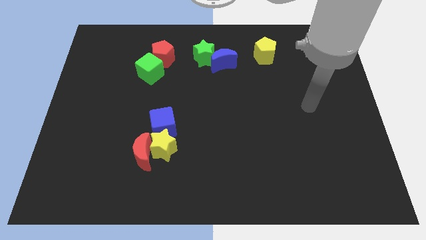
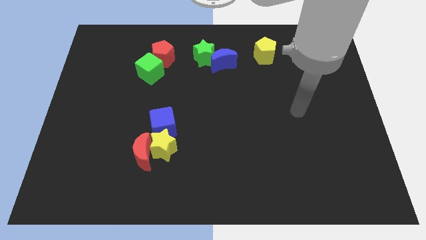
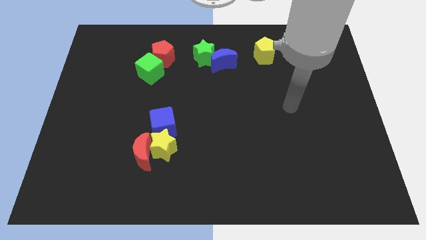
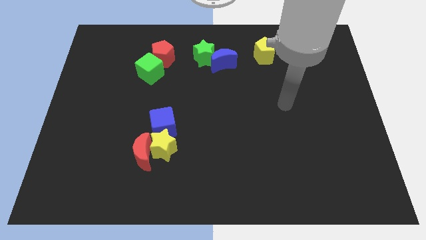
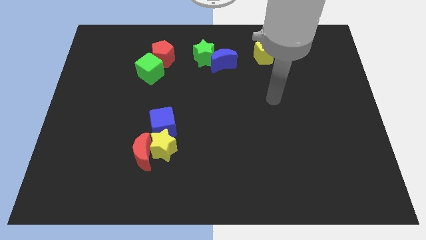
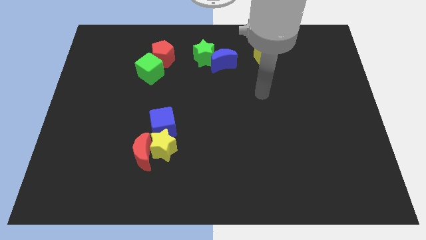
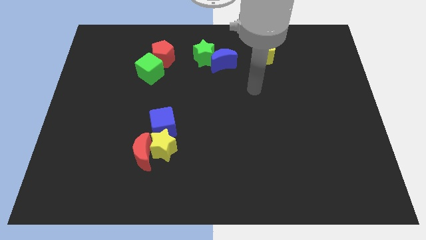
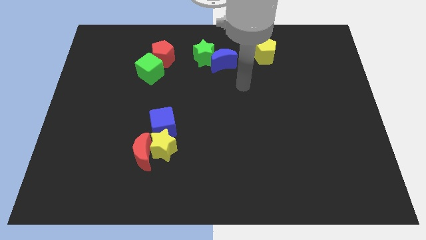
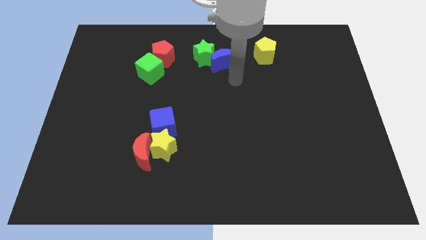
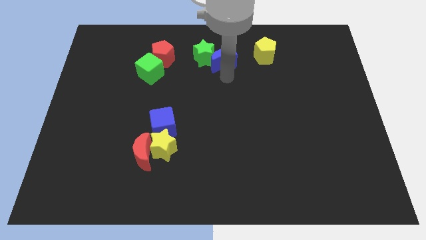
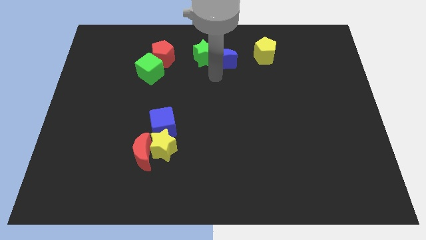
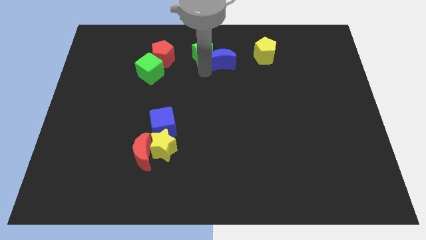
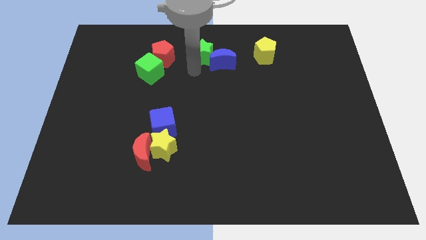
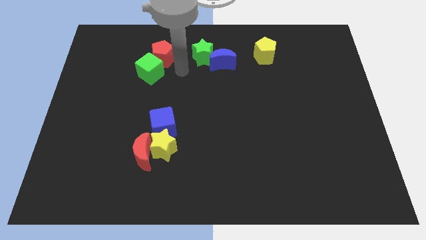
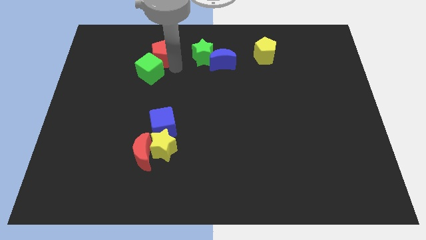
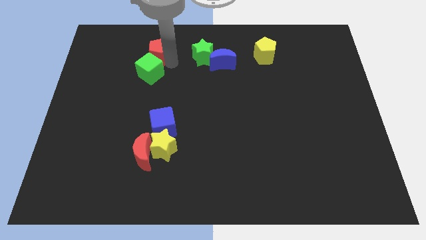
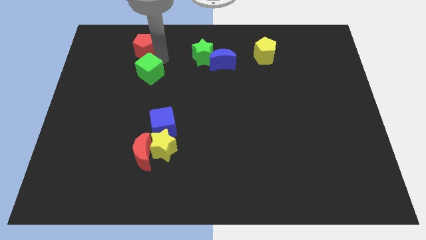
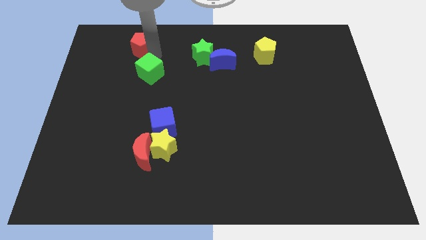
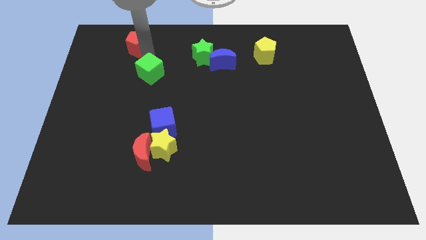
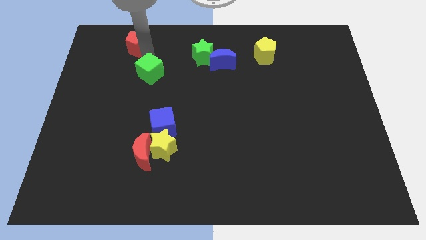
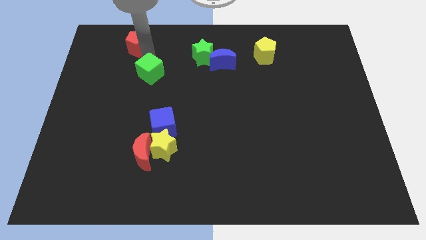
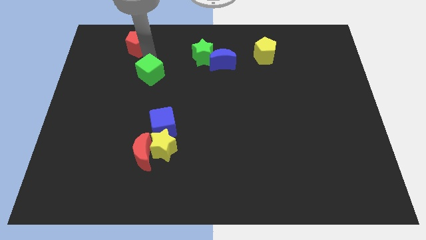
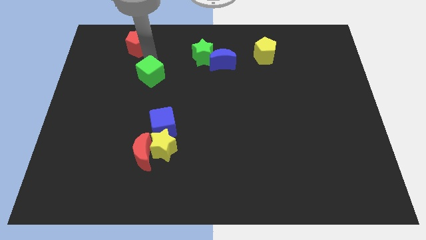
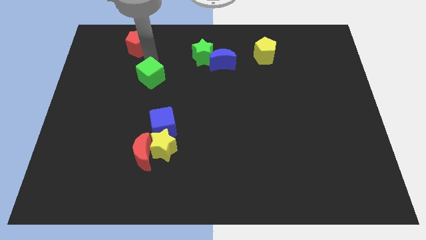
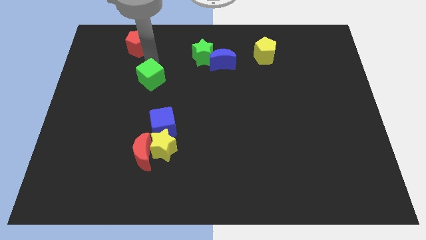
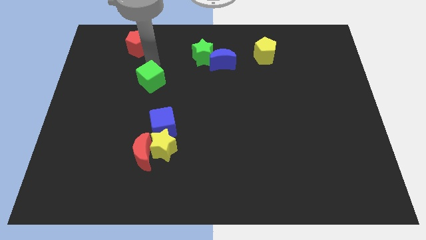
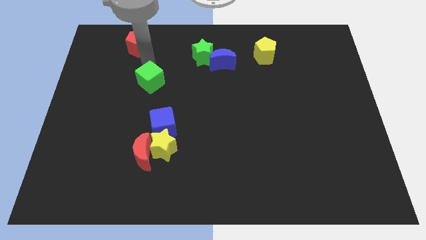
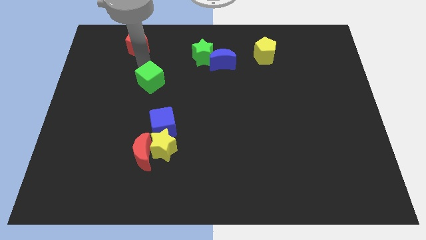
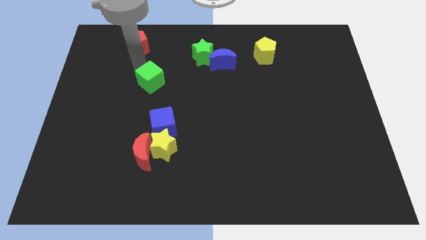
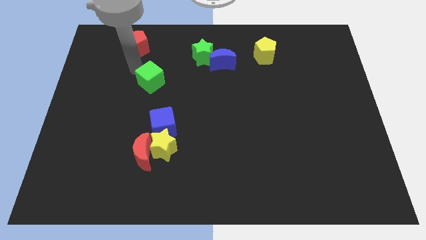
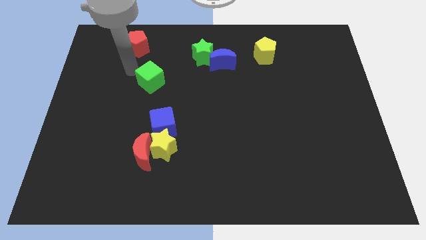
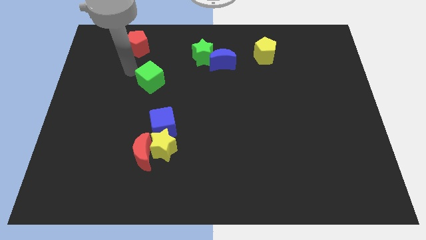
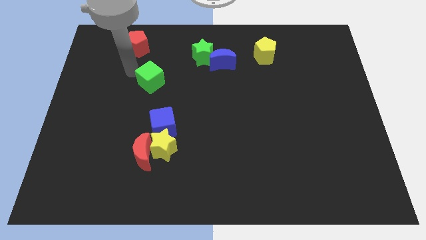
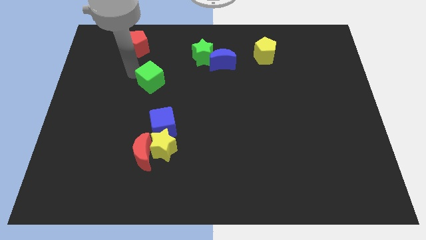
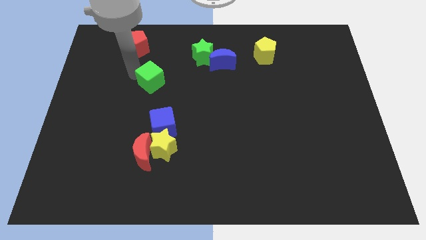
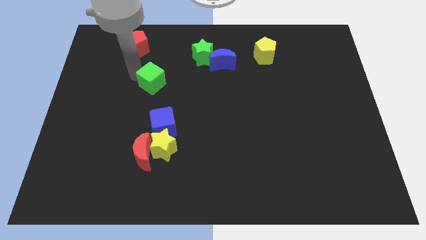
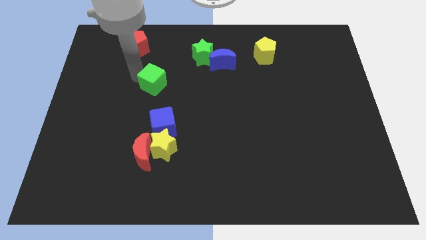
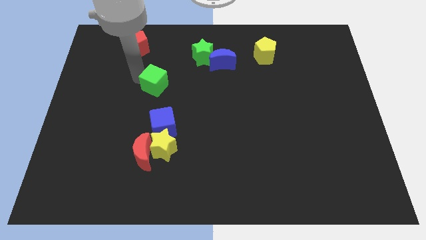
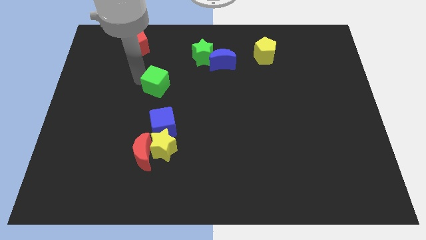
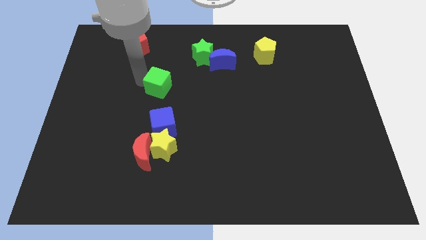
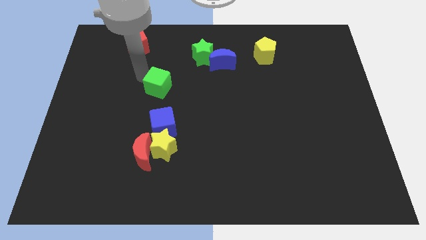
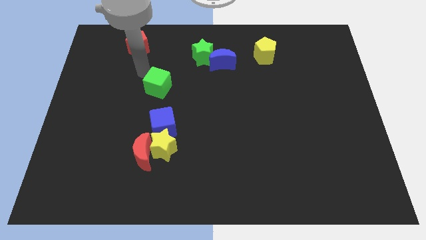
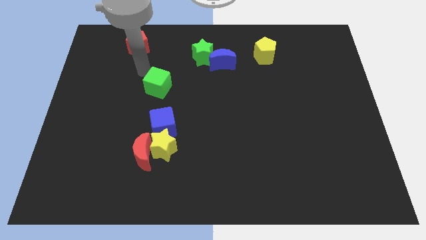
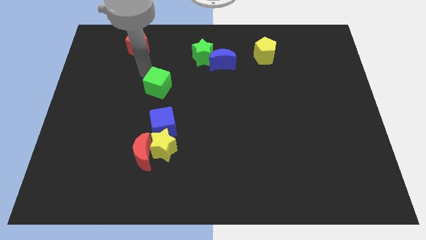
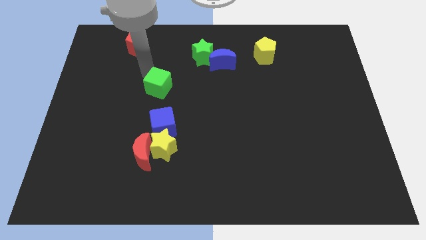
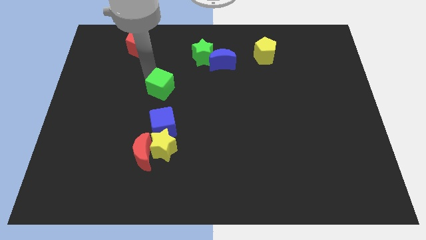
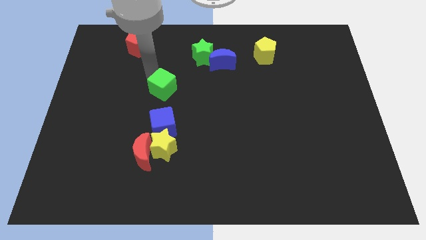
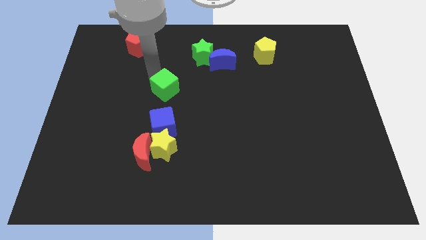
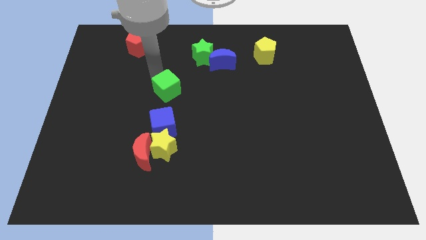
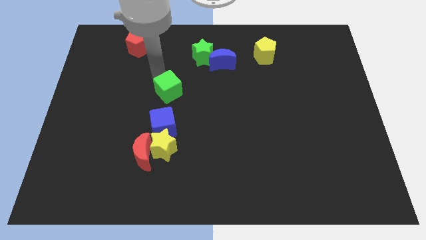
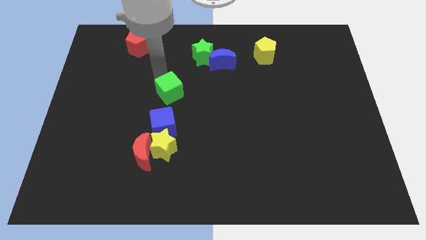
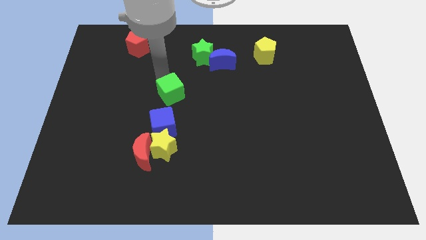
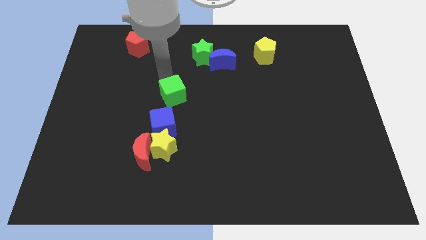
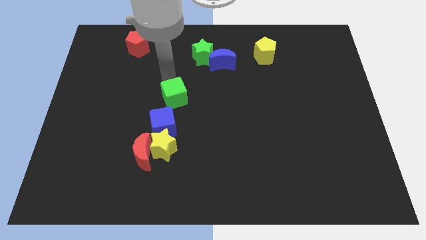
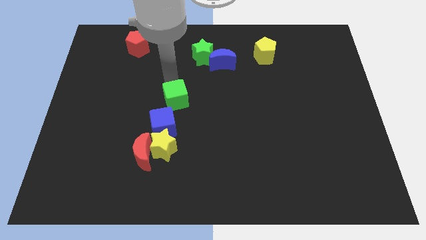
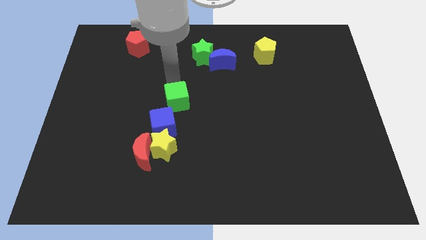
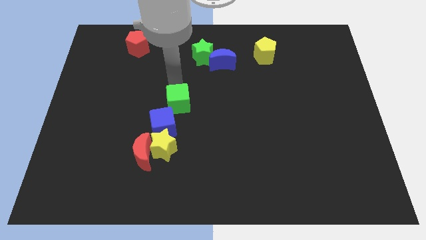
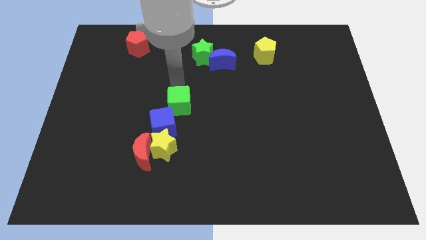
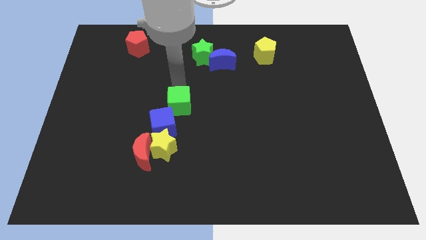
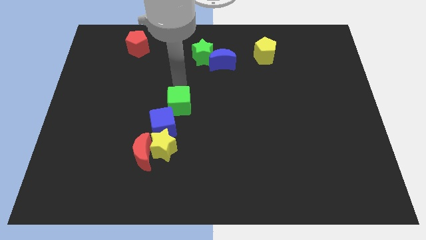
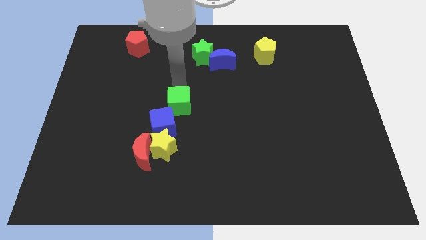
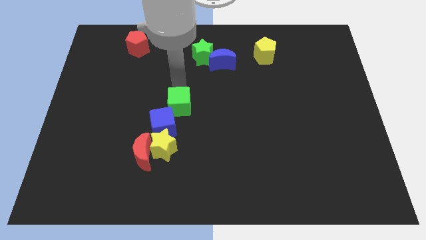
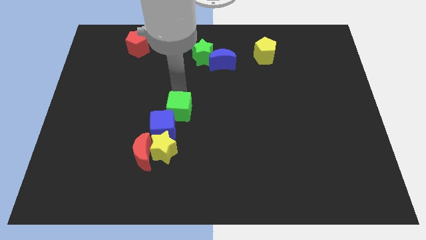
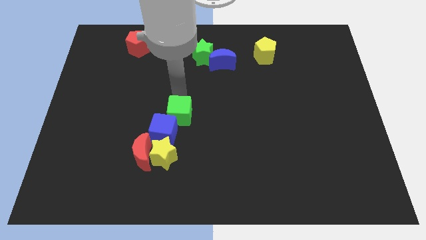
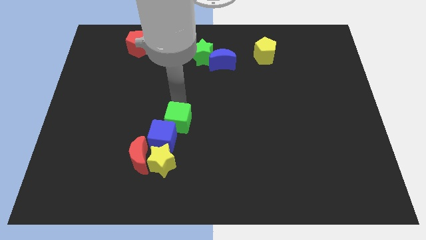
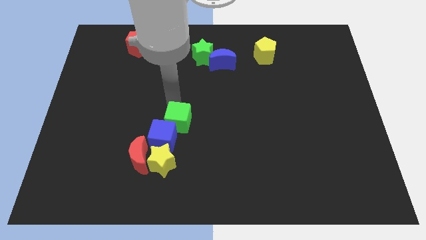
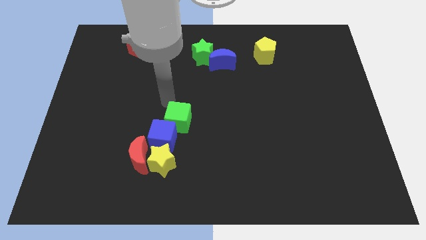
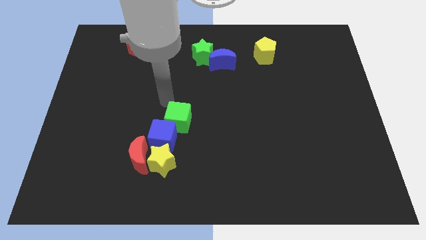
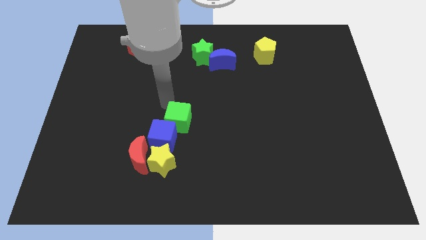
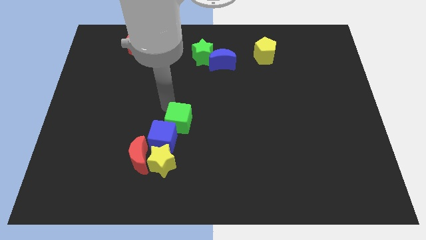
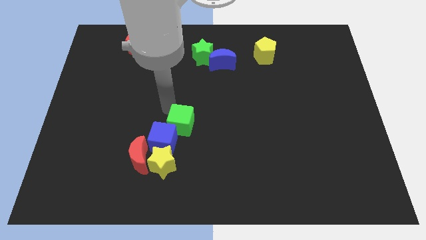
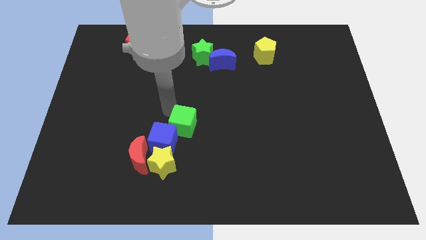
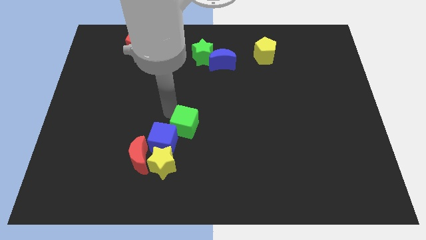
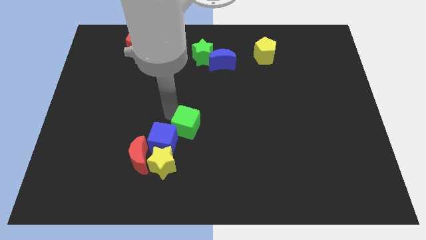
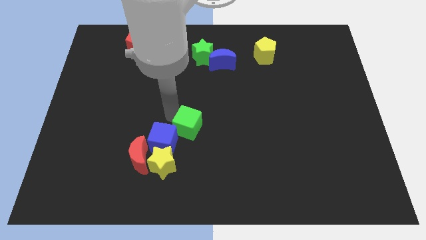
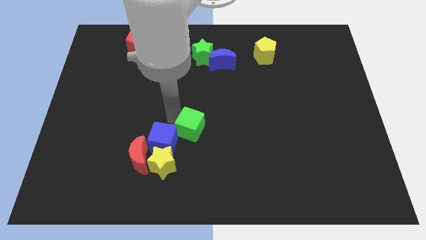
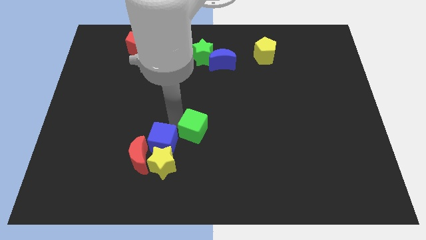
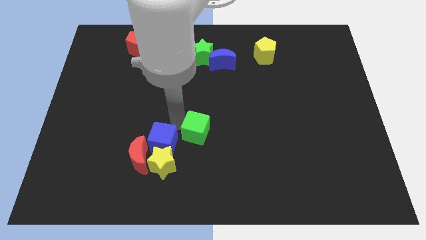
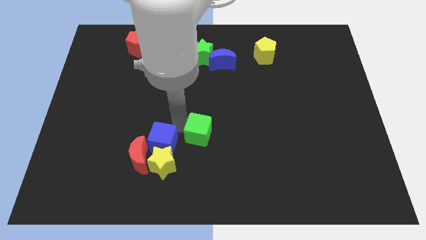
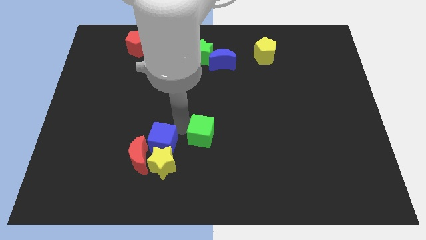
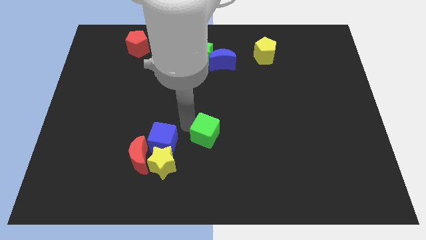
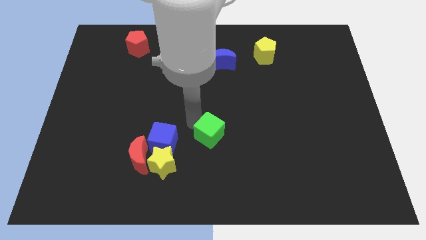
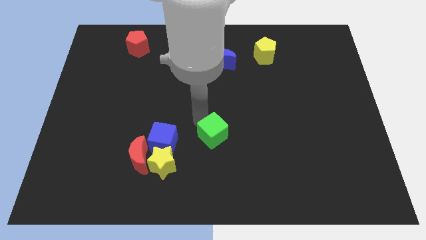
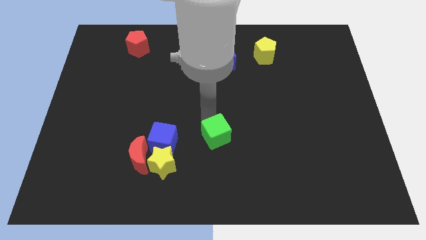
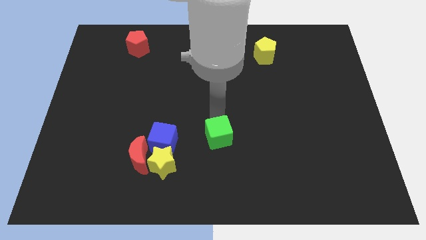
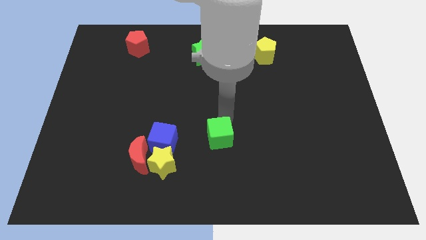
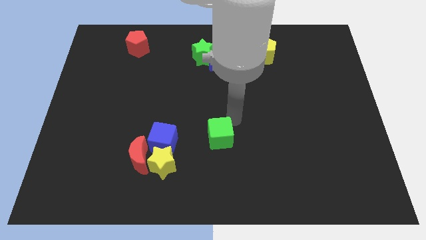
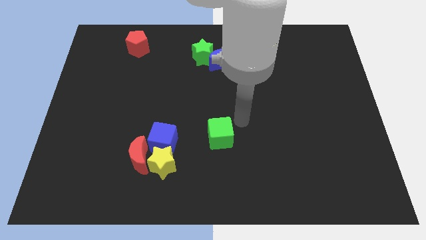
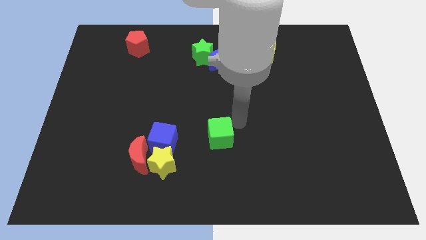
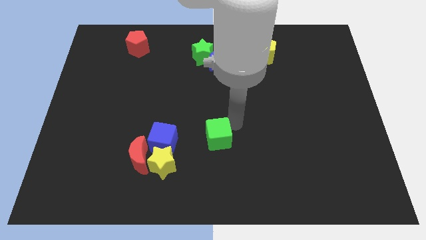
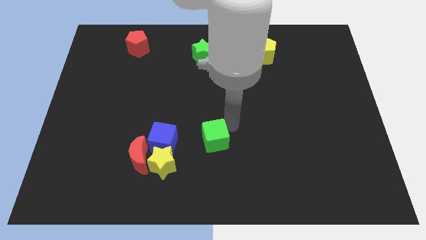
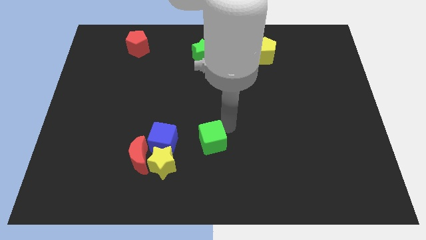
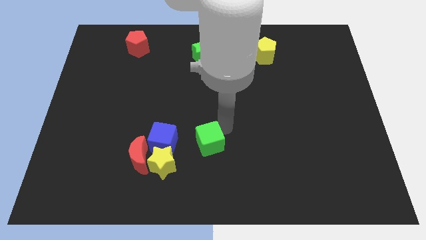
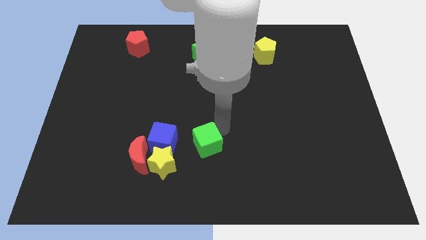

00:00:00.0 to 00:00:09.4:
slide the green cube just right of the red moon
